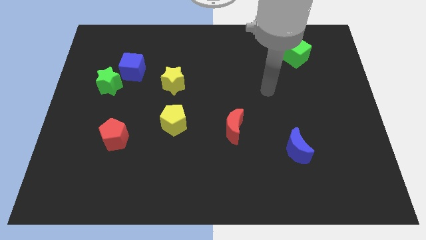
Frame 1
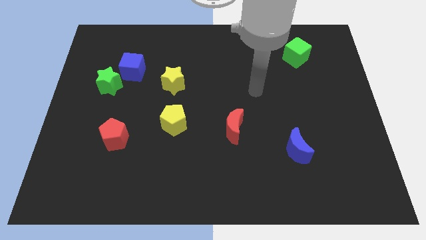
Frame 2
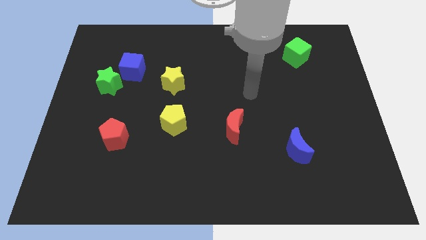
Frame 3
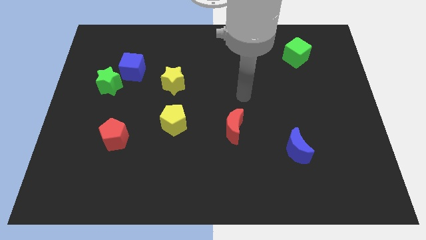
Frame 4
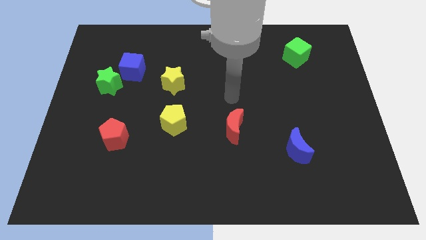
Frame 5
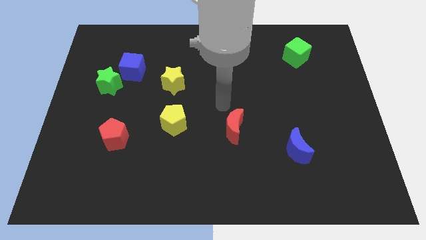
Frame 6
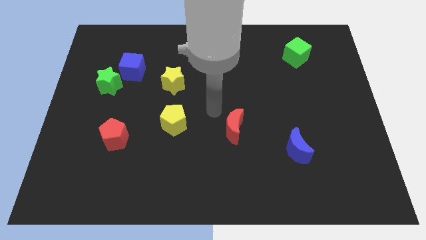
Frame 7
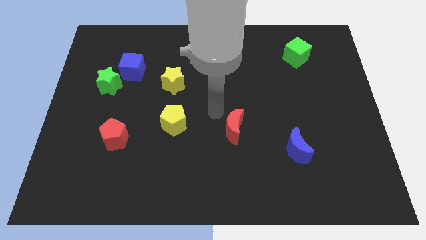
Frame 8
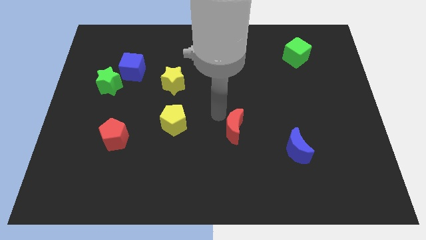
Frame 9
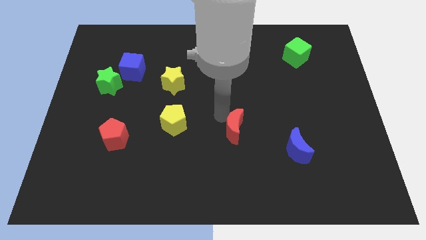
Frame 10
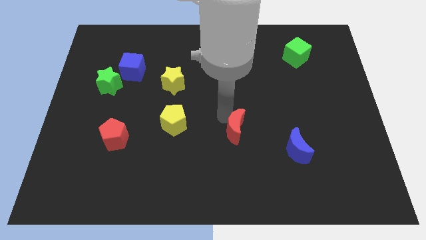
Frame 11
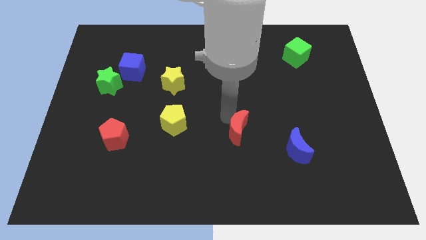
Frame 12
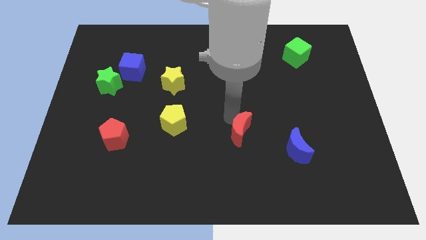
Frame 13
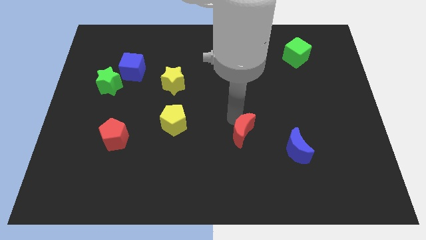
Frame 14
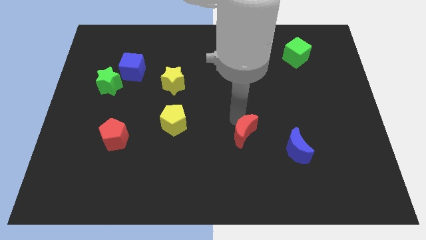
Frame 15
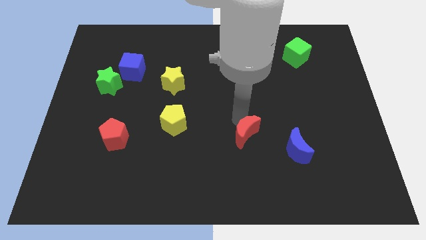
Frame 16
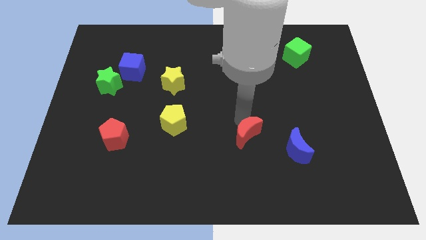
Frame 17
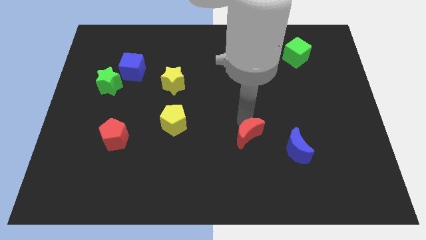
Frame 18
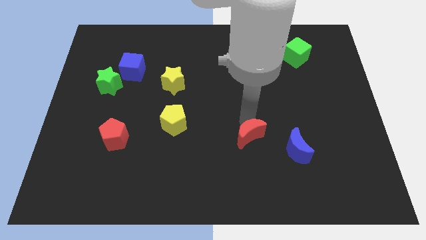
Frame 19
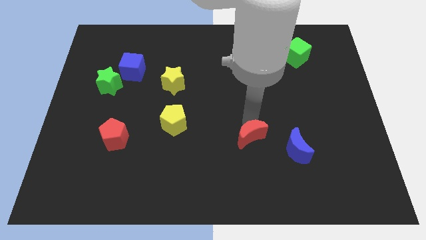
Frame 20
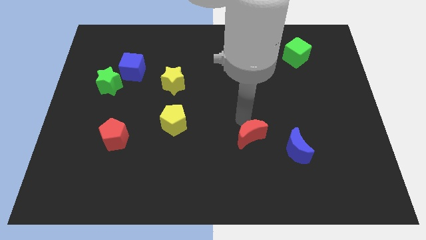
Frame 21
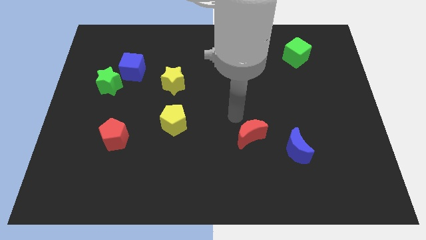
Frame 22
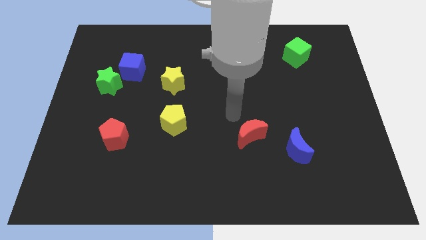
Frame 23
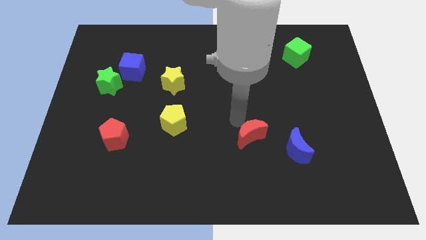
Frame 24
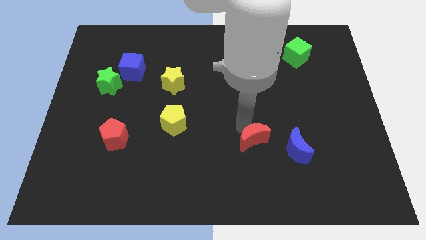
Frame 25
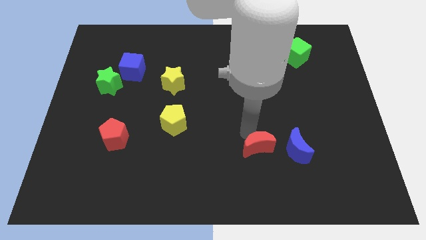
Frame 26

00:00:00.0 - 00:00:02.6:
move the red moon a little bit down and right diagonally

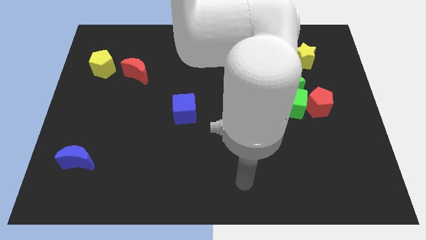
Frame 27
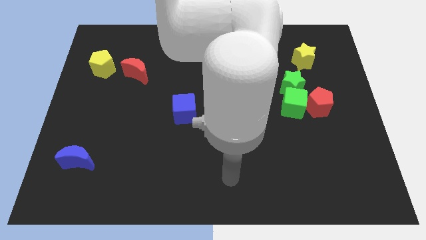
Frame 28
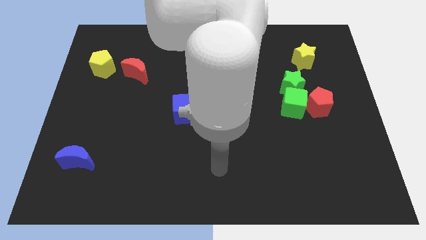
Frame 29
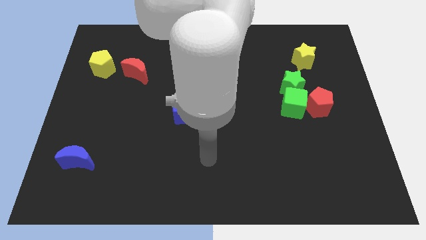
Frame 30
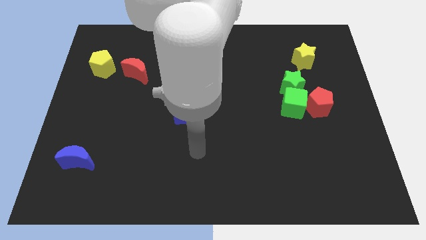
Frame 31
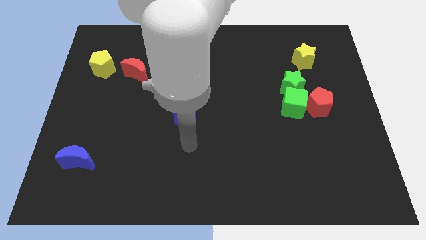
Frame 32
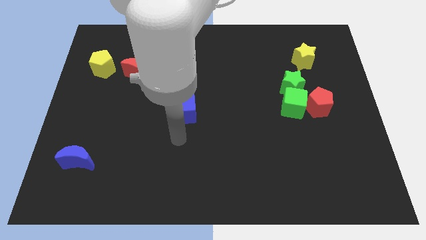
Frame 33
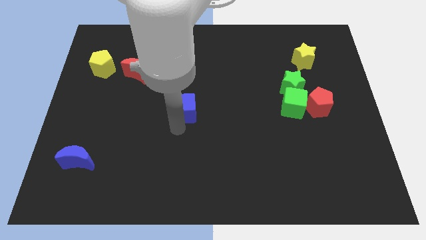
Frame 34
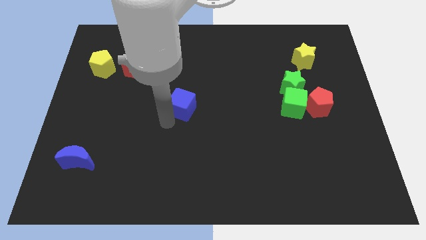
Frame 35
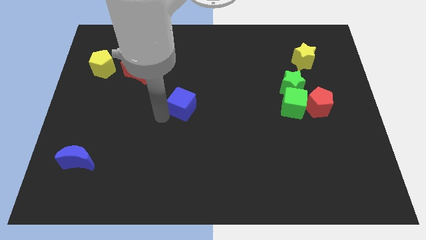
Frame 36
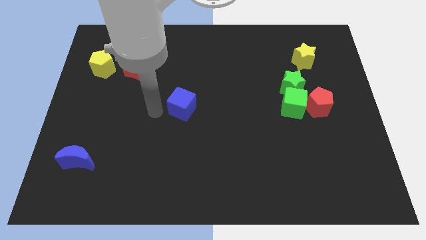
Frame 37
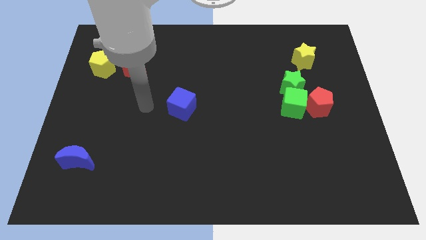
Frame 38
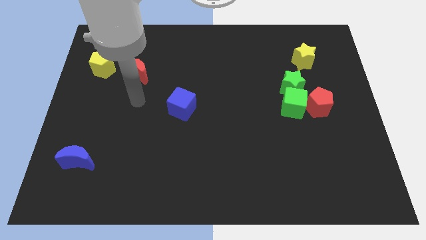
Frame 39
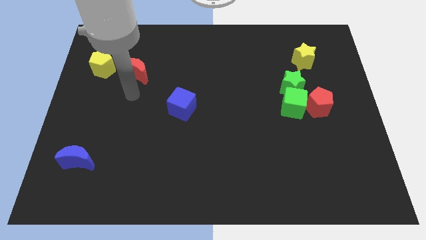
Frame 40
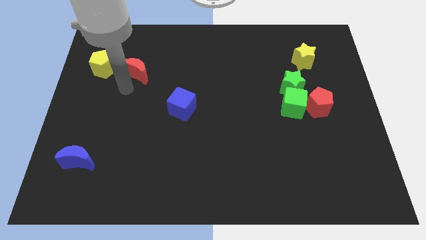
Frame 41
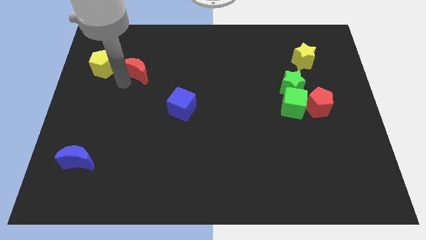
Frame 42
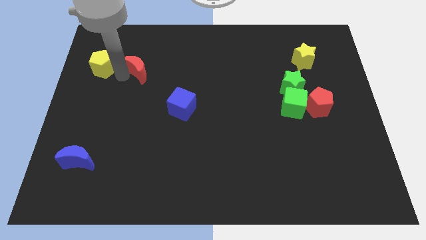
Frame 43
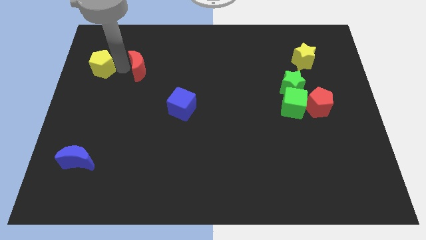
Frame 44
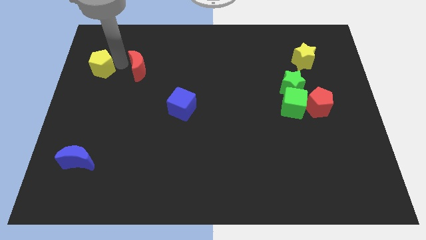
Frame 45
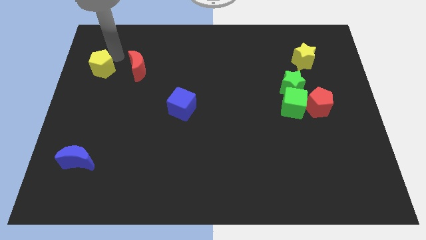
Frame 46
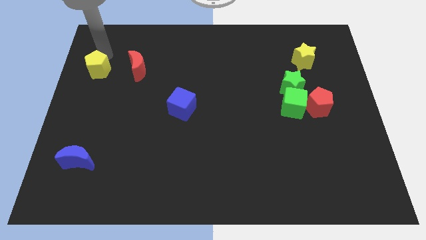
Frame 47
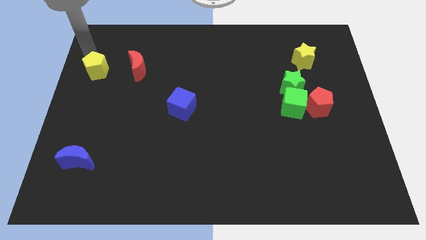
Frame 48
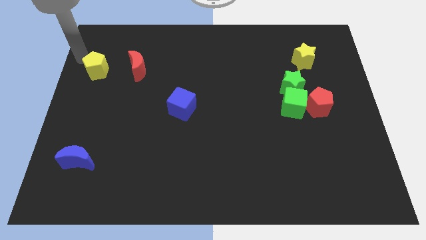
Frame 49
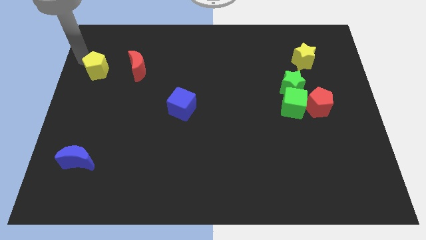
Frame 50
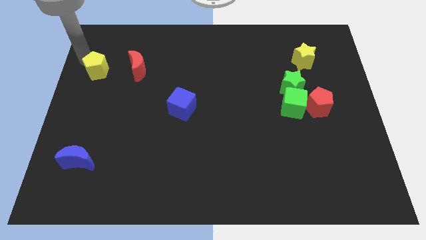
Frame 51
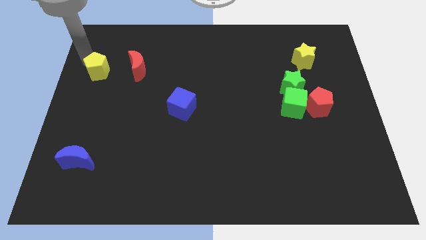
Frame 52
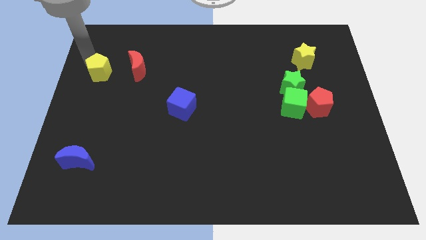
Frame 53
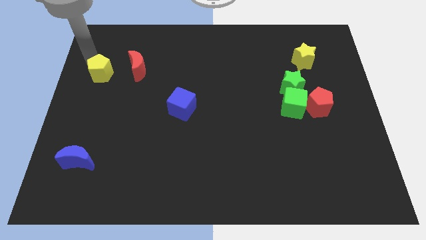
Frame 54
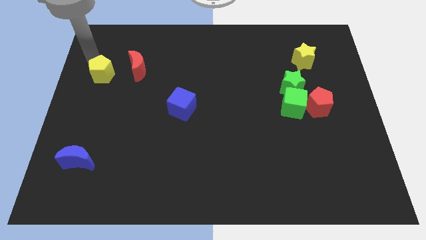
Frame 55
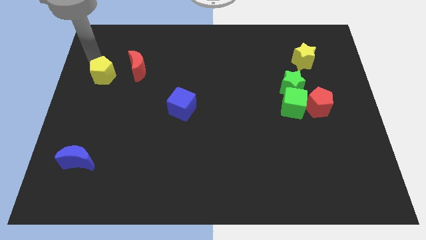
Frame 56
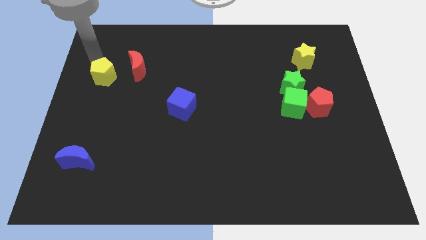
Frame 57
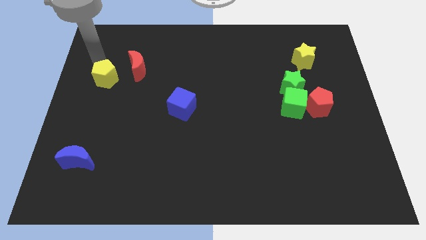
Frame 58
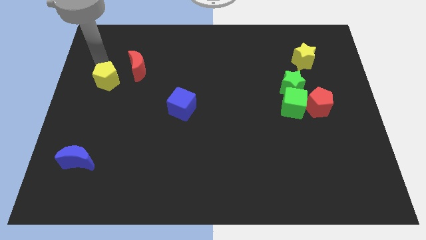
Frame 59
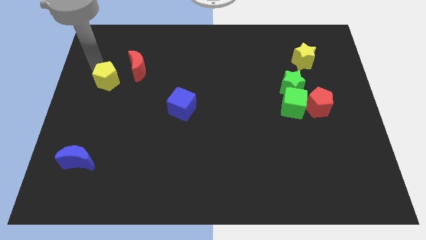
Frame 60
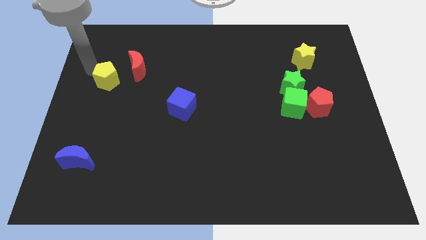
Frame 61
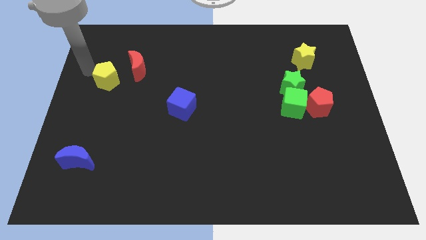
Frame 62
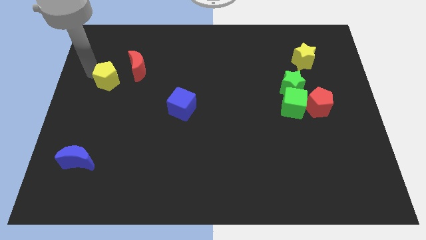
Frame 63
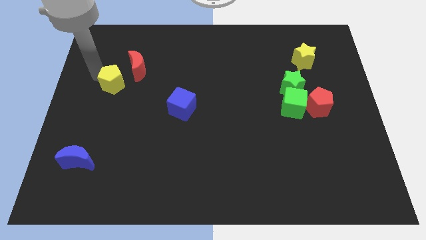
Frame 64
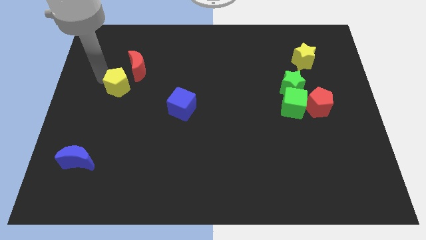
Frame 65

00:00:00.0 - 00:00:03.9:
slightly push the yellow pentagon downwards and to the right diagonally

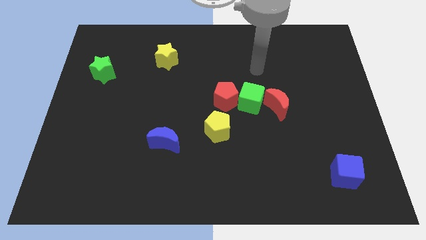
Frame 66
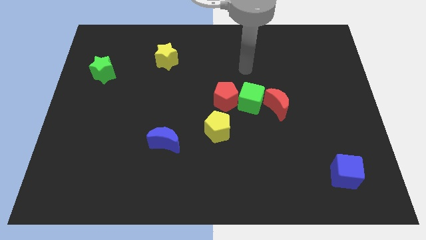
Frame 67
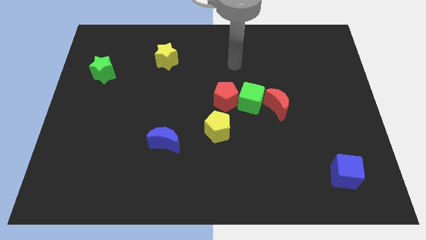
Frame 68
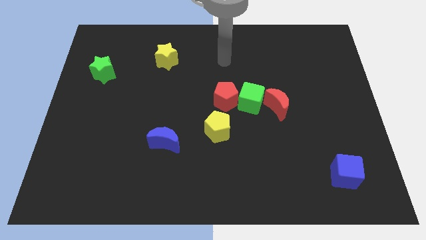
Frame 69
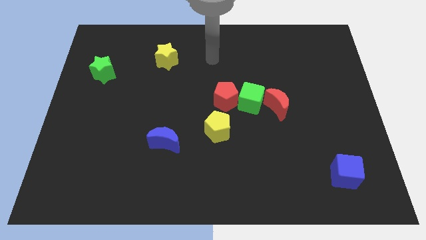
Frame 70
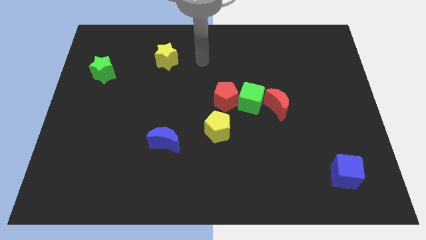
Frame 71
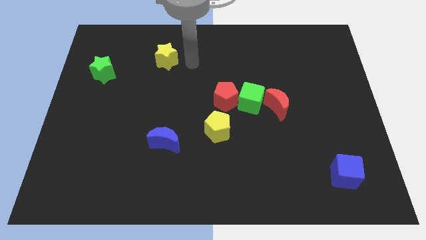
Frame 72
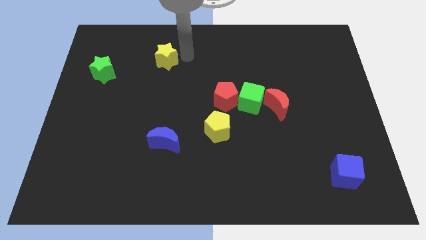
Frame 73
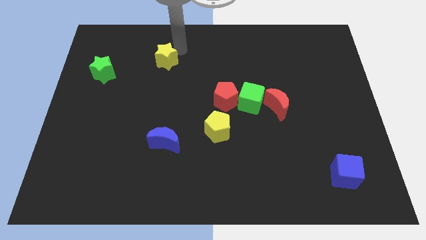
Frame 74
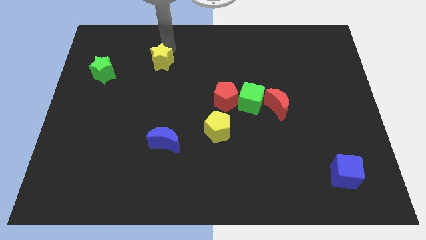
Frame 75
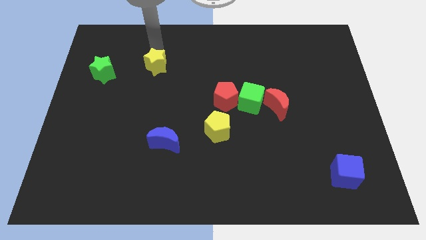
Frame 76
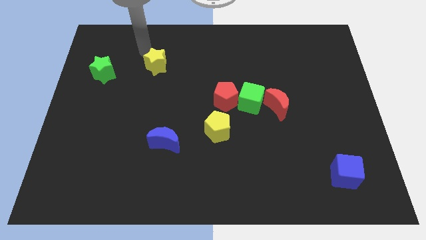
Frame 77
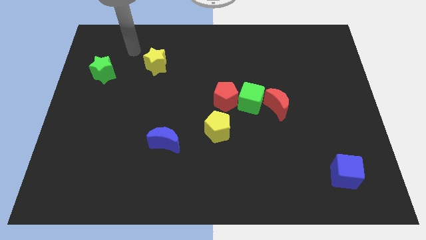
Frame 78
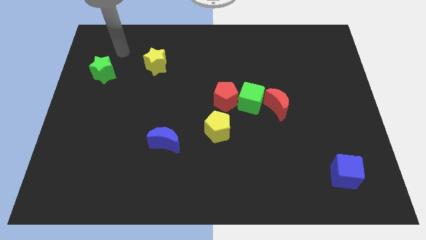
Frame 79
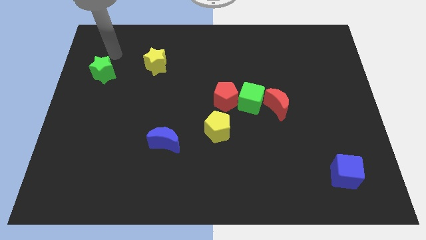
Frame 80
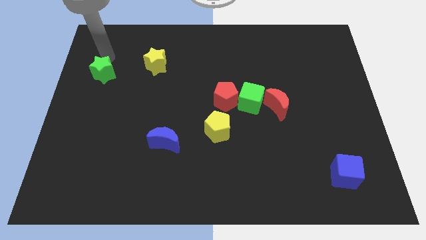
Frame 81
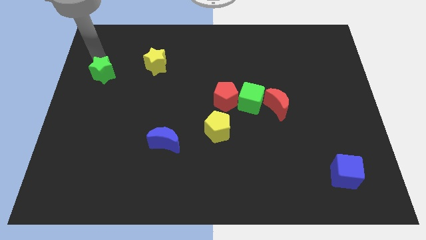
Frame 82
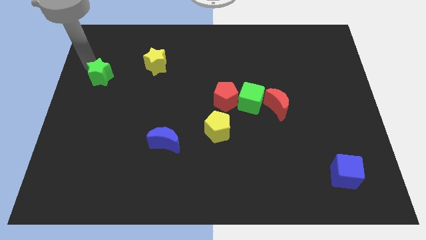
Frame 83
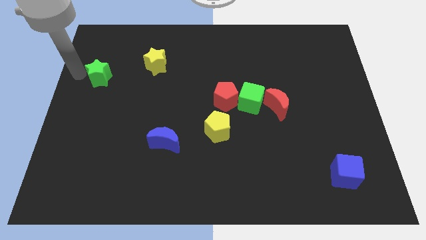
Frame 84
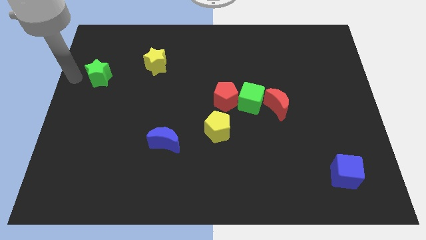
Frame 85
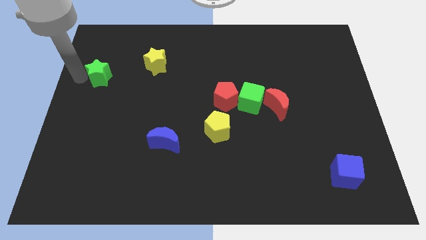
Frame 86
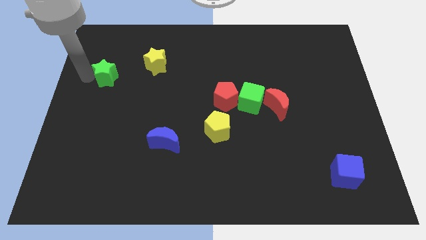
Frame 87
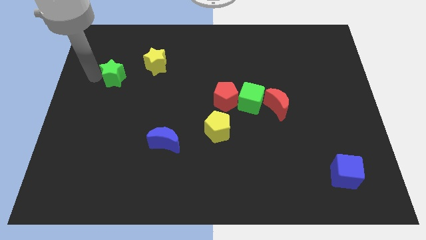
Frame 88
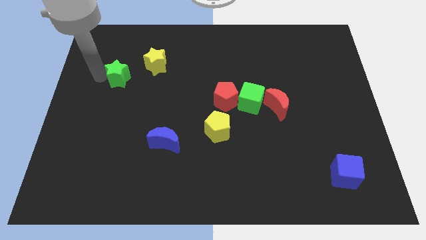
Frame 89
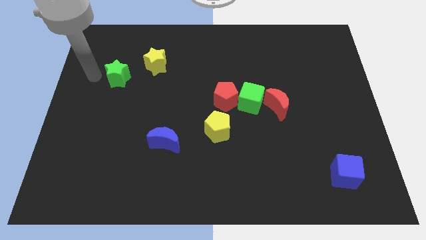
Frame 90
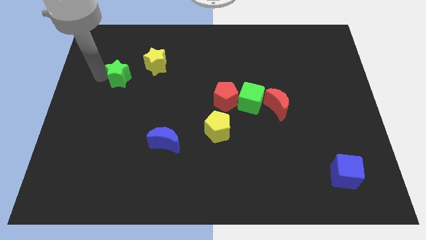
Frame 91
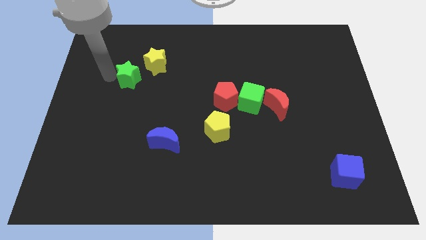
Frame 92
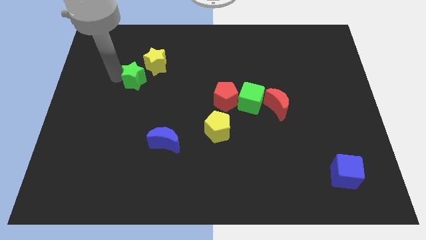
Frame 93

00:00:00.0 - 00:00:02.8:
move the green star to the right a little
